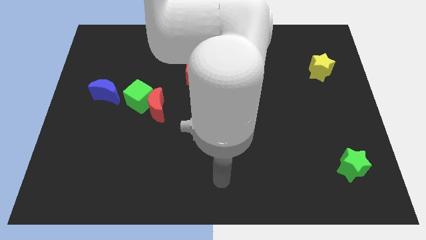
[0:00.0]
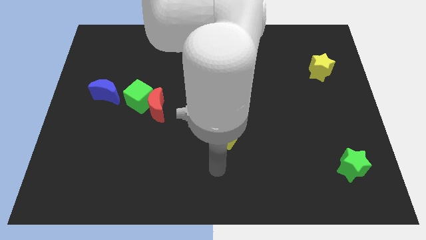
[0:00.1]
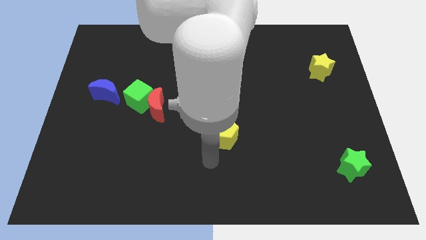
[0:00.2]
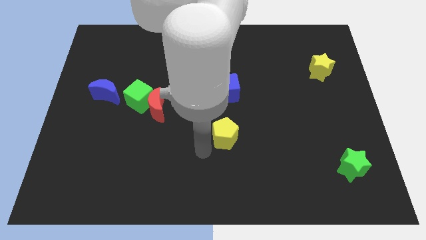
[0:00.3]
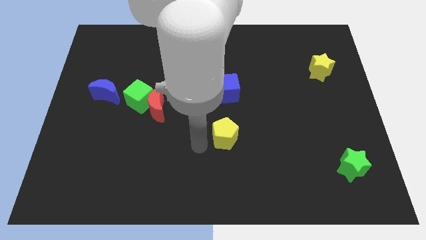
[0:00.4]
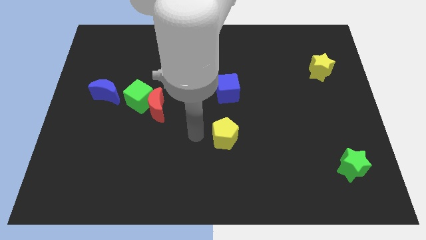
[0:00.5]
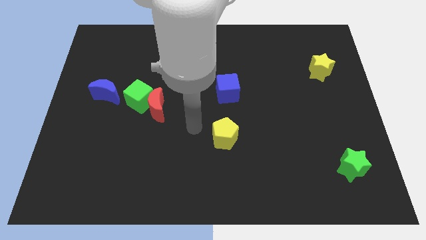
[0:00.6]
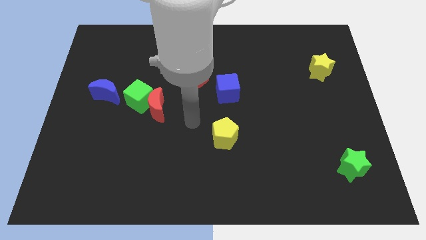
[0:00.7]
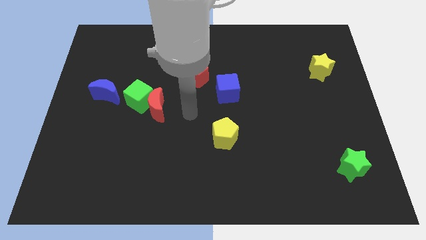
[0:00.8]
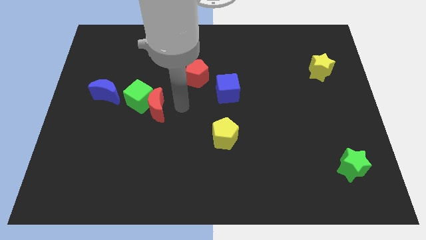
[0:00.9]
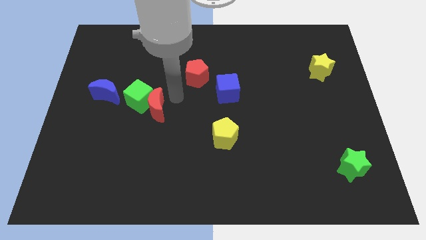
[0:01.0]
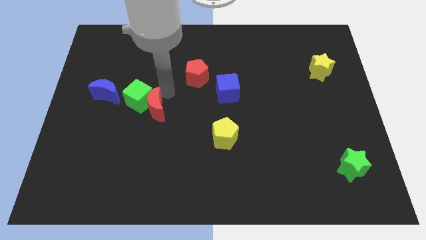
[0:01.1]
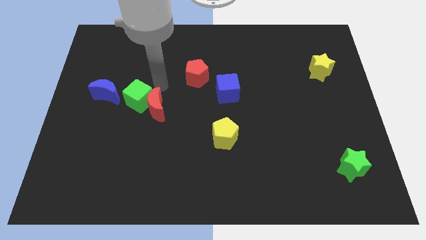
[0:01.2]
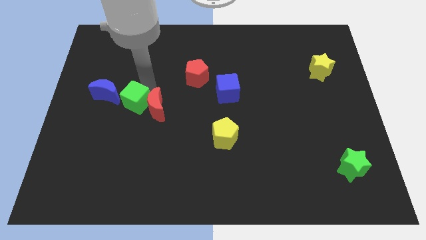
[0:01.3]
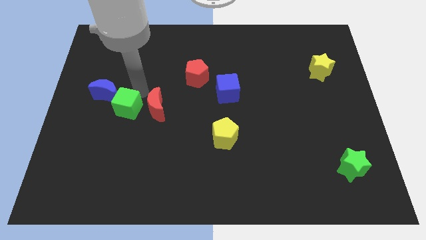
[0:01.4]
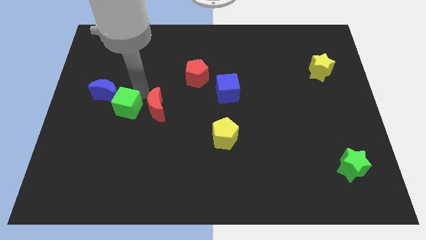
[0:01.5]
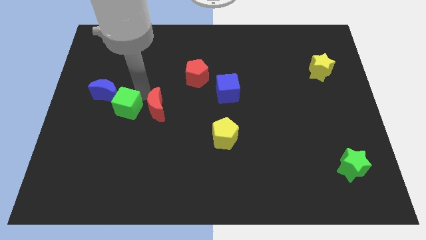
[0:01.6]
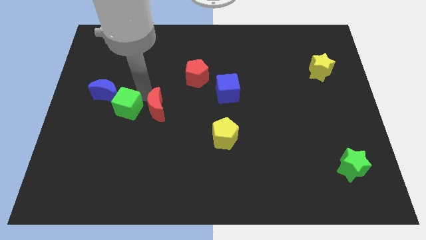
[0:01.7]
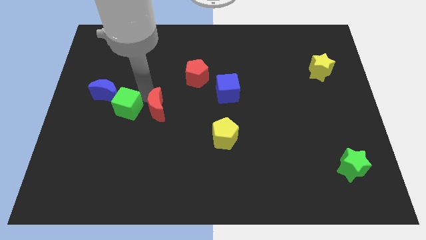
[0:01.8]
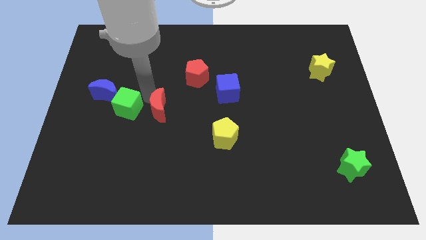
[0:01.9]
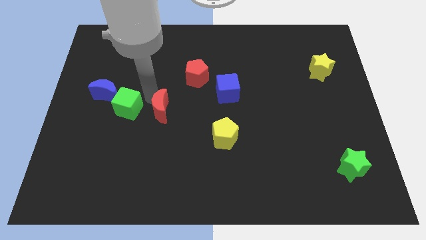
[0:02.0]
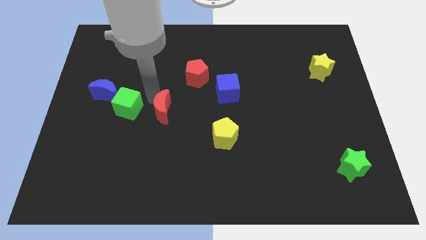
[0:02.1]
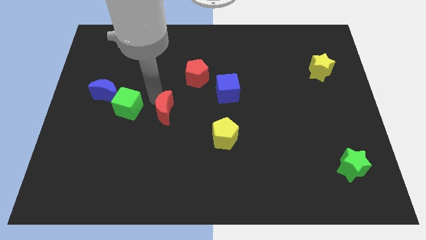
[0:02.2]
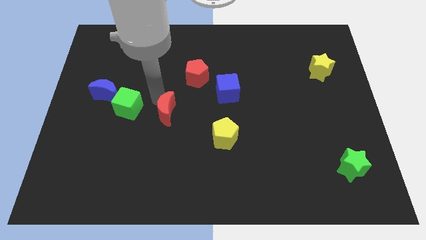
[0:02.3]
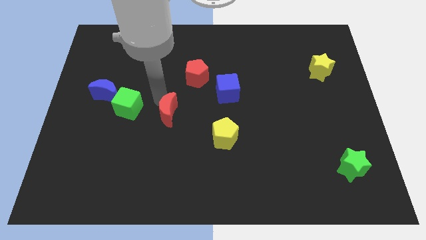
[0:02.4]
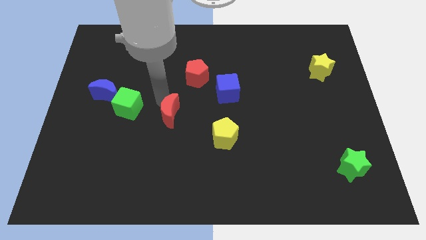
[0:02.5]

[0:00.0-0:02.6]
separate the red moon from the green cube

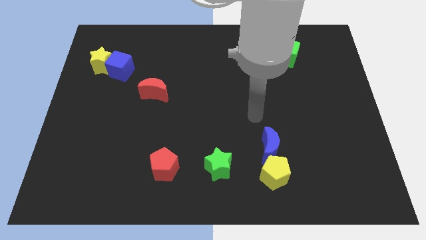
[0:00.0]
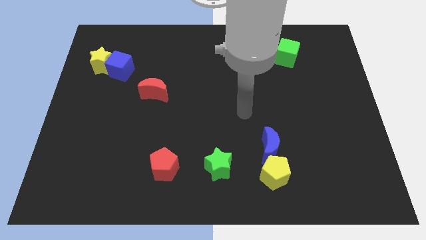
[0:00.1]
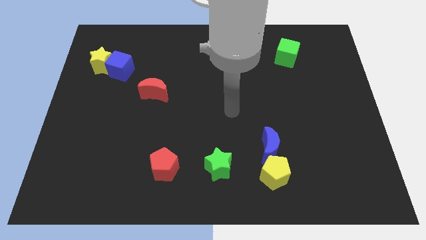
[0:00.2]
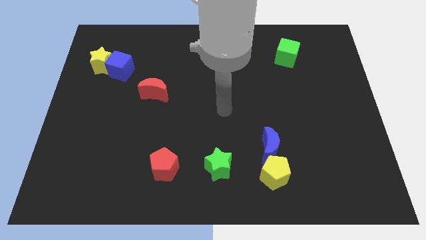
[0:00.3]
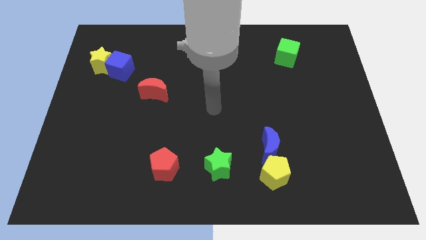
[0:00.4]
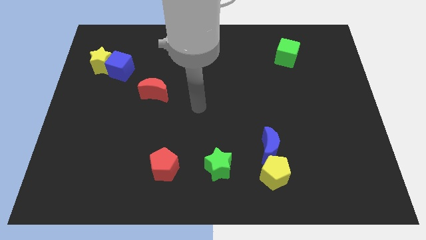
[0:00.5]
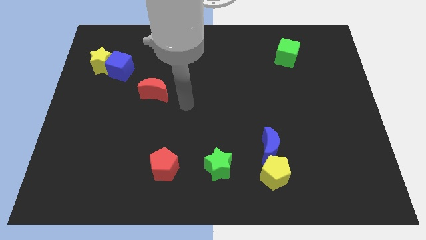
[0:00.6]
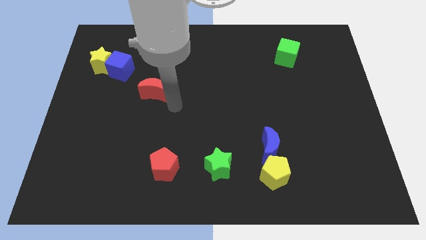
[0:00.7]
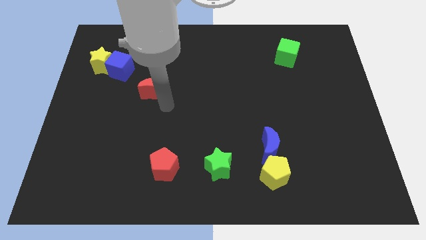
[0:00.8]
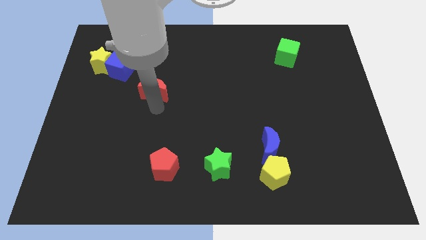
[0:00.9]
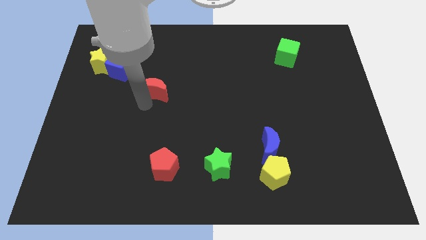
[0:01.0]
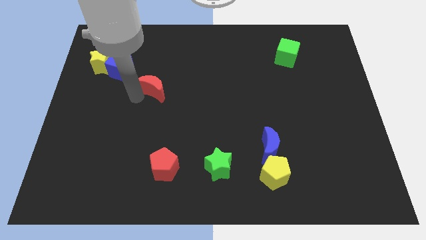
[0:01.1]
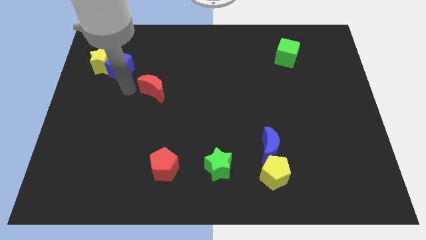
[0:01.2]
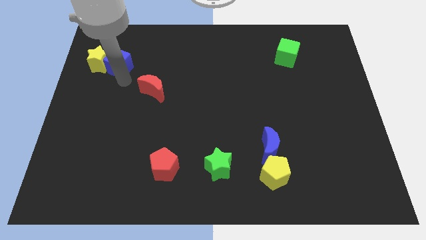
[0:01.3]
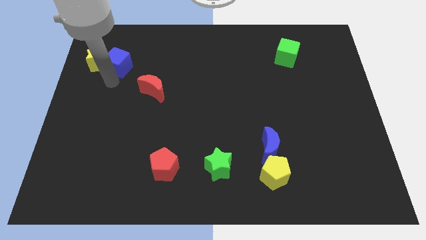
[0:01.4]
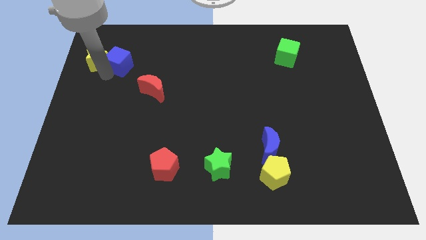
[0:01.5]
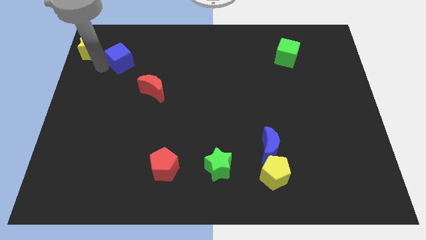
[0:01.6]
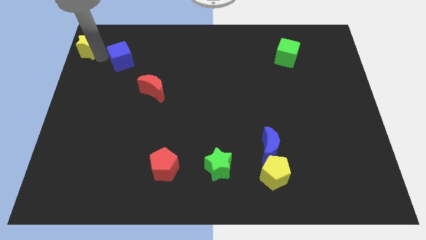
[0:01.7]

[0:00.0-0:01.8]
pull the blue cube apart from the yellow star

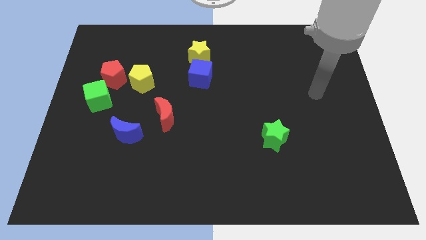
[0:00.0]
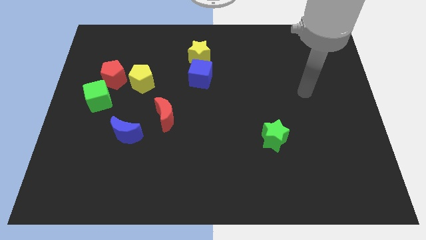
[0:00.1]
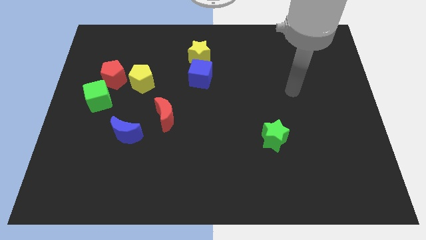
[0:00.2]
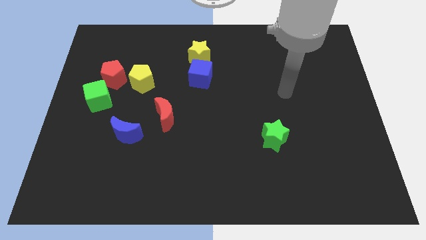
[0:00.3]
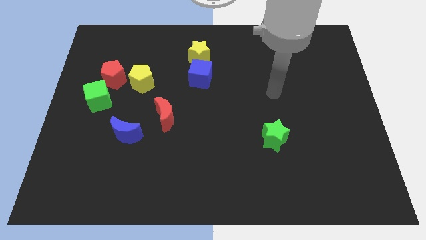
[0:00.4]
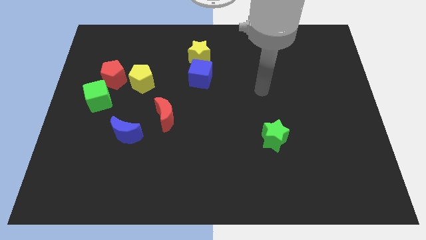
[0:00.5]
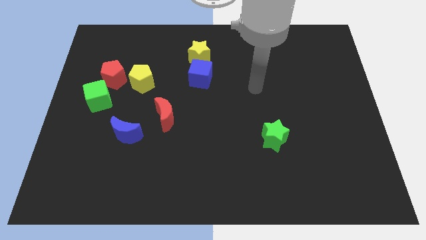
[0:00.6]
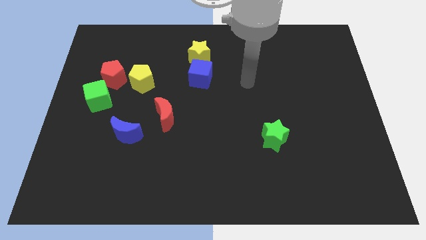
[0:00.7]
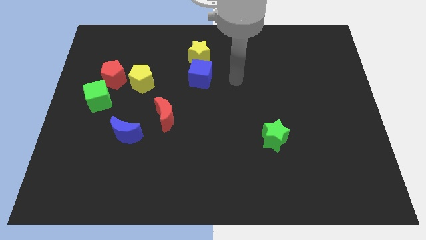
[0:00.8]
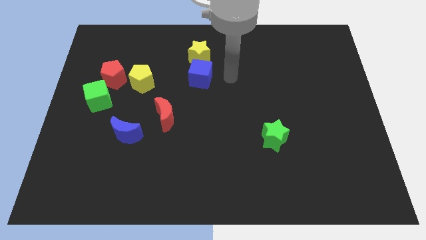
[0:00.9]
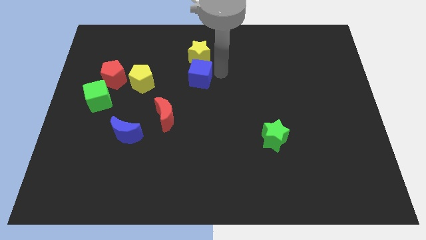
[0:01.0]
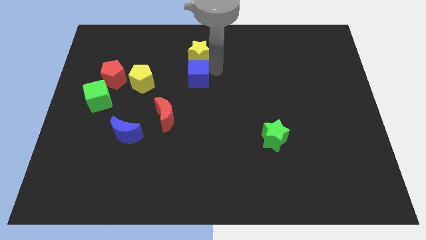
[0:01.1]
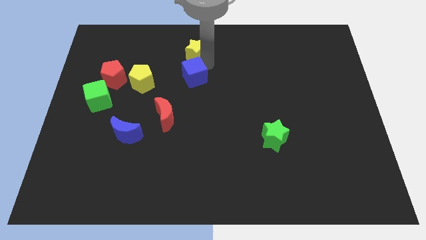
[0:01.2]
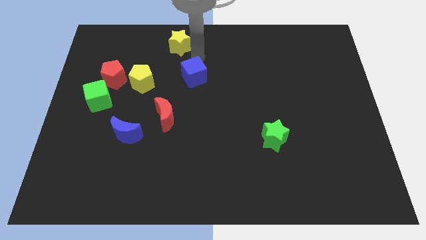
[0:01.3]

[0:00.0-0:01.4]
separate the blue cube from the yellow star

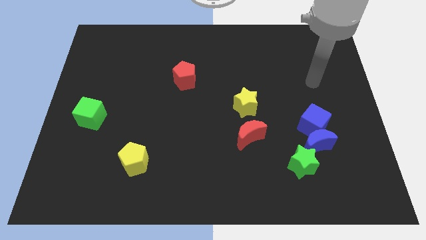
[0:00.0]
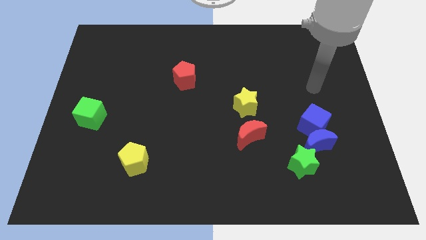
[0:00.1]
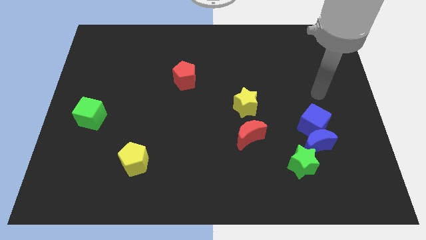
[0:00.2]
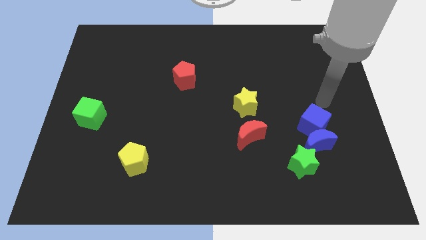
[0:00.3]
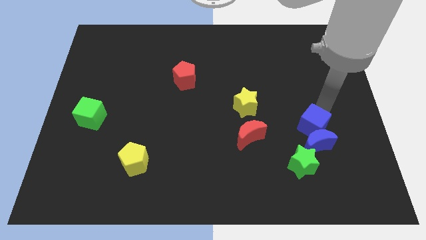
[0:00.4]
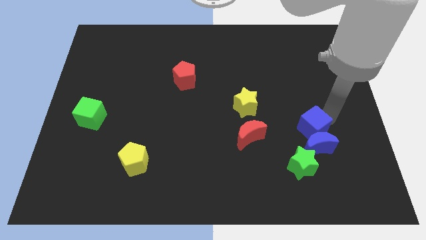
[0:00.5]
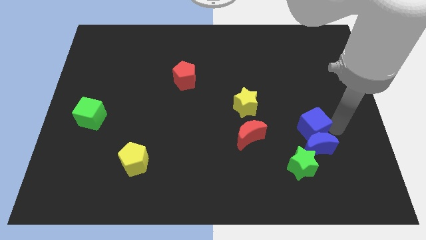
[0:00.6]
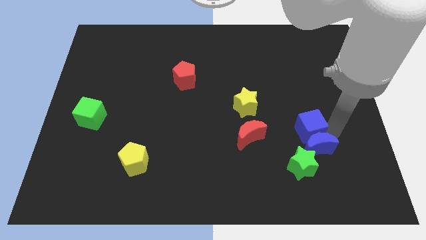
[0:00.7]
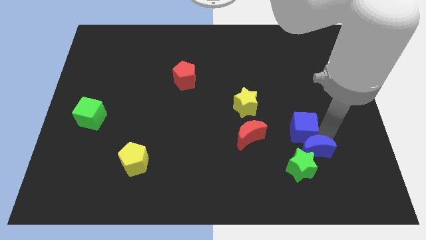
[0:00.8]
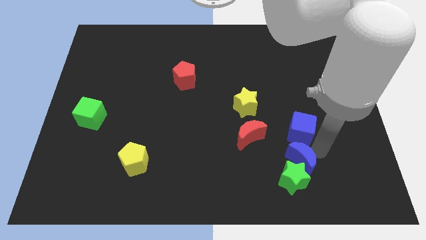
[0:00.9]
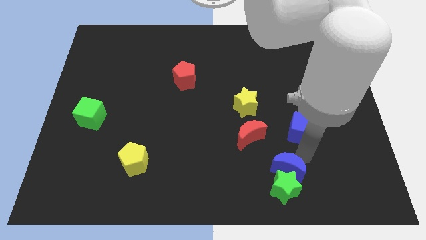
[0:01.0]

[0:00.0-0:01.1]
separate the blue cube from the blue moon

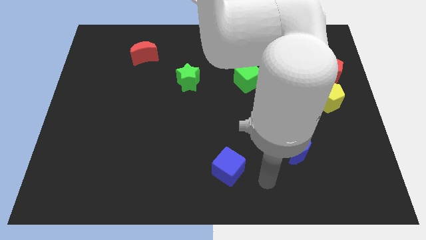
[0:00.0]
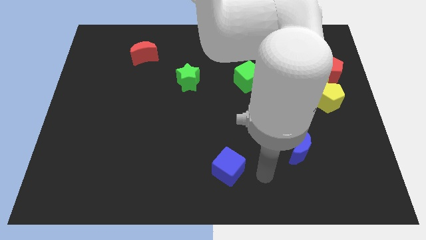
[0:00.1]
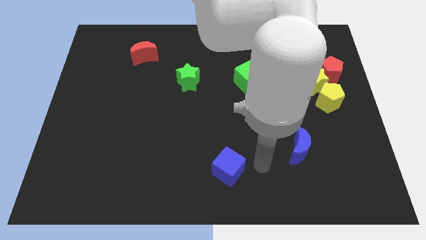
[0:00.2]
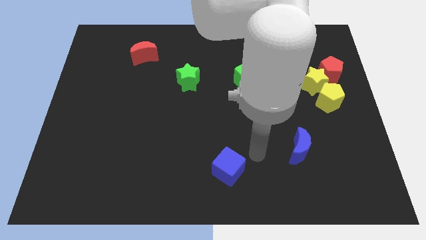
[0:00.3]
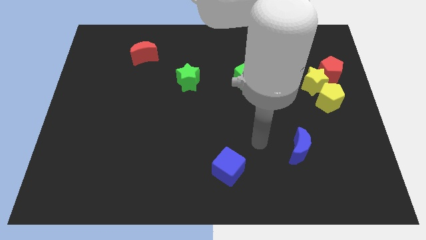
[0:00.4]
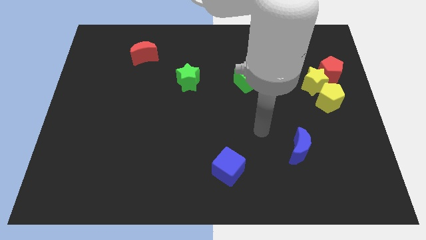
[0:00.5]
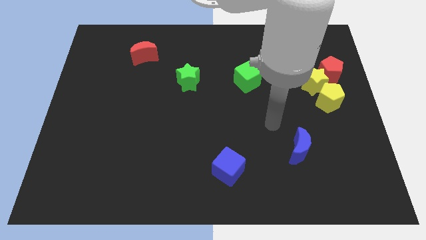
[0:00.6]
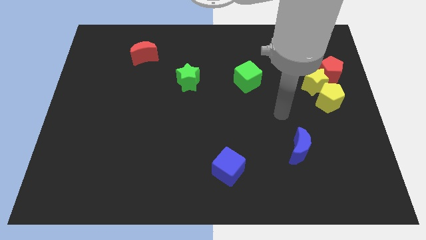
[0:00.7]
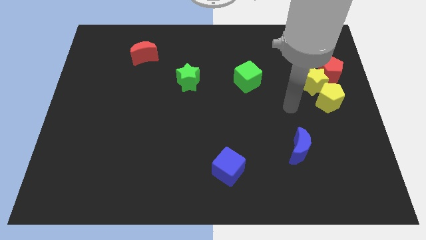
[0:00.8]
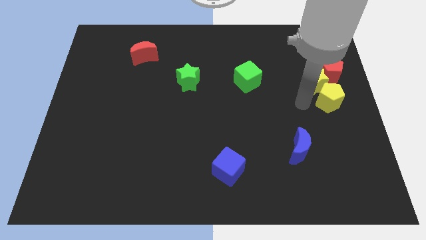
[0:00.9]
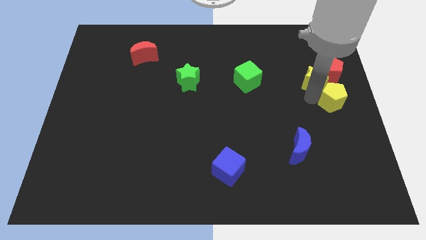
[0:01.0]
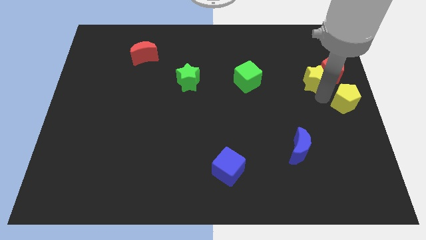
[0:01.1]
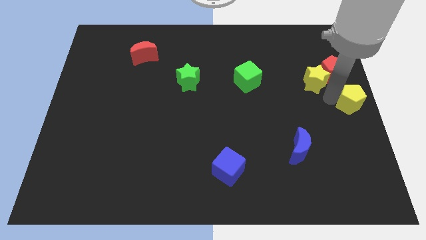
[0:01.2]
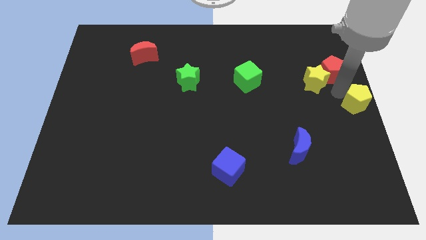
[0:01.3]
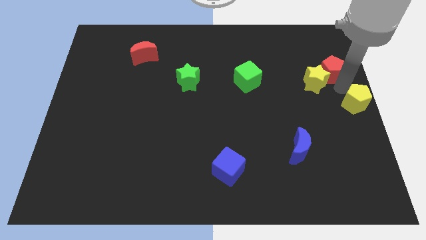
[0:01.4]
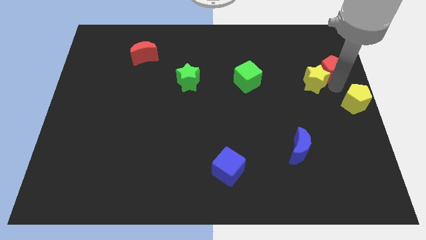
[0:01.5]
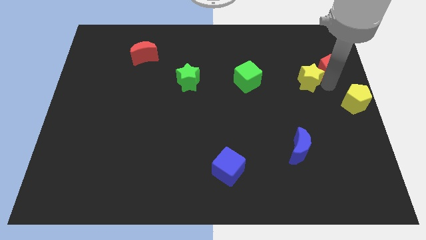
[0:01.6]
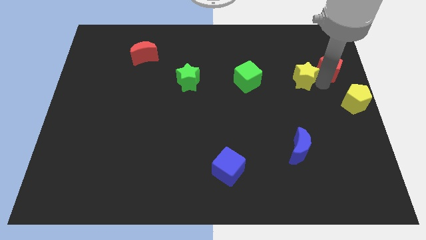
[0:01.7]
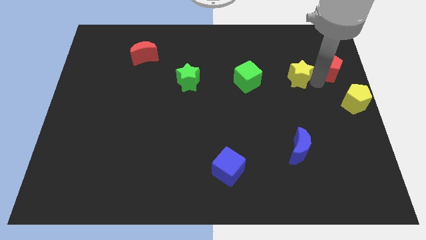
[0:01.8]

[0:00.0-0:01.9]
move the yellow star away from the red pentagon and yellow pentagon

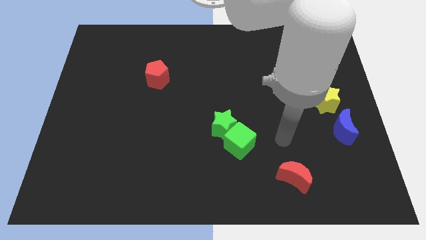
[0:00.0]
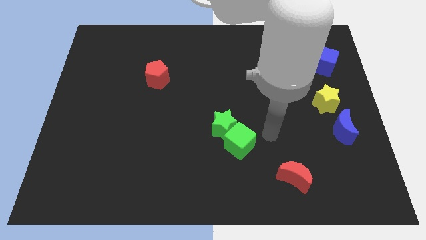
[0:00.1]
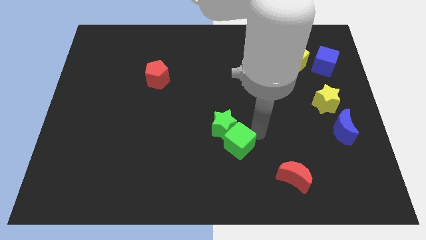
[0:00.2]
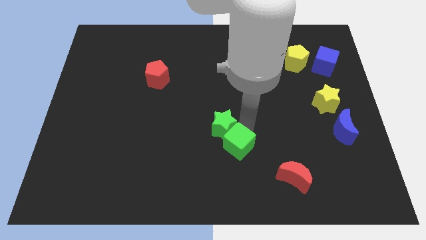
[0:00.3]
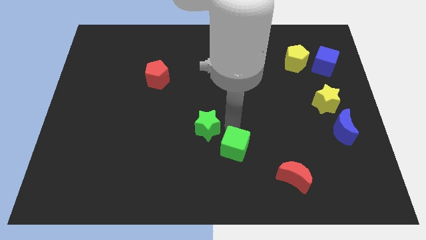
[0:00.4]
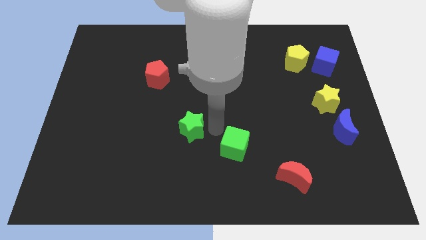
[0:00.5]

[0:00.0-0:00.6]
pull the green cube apart from the green star
